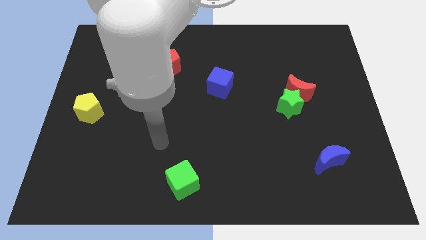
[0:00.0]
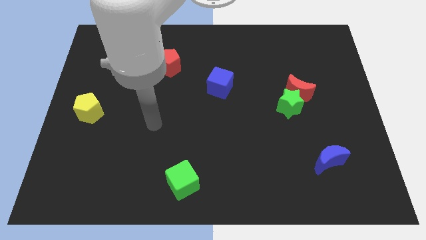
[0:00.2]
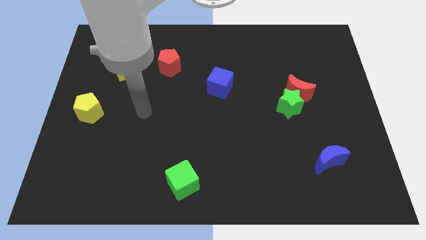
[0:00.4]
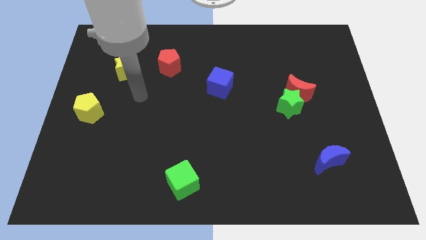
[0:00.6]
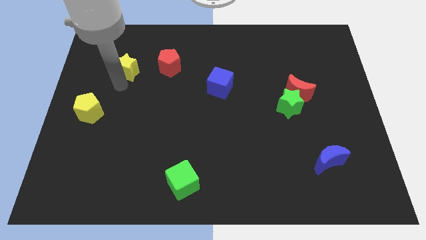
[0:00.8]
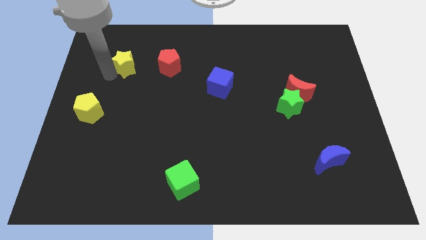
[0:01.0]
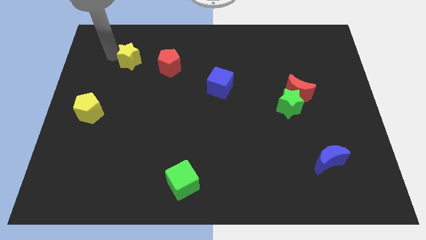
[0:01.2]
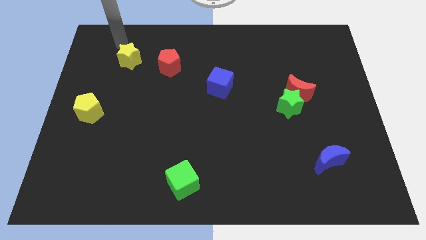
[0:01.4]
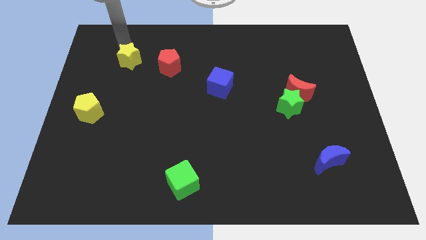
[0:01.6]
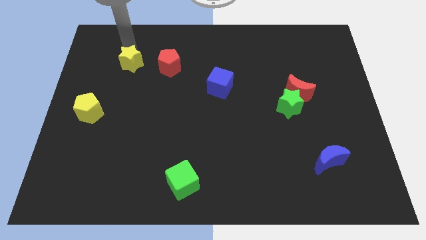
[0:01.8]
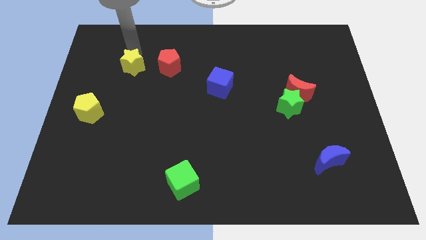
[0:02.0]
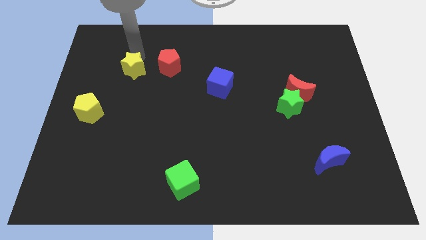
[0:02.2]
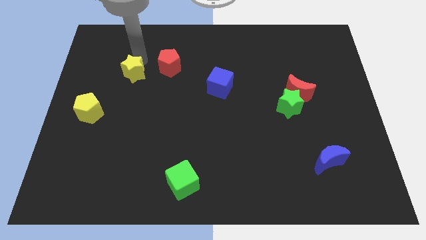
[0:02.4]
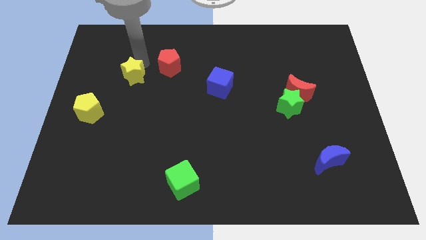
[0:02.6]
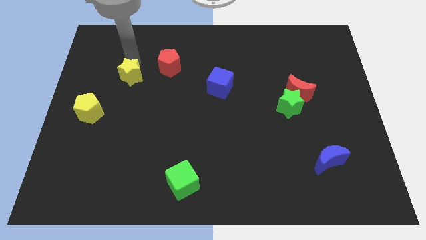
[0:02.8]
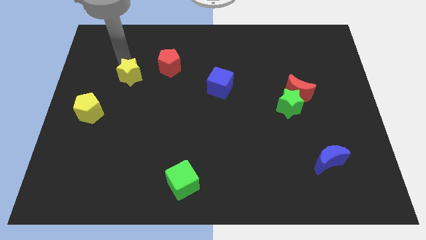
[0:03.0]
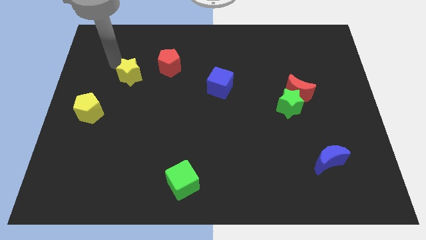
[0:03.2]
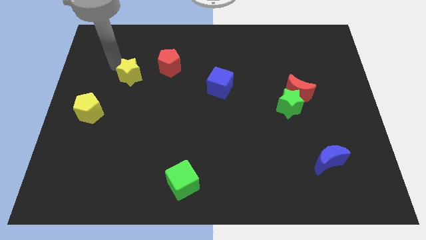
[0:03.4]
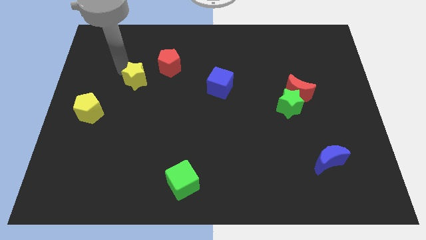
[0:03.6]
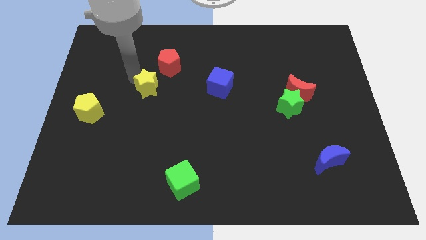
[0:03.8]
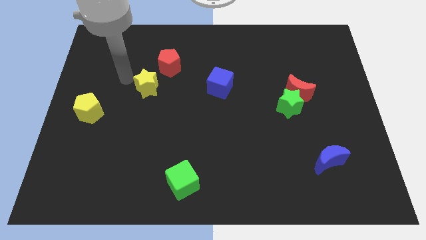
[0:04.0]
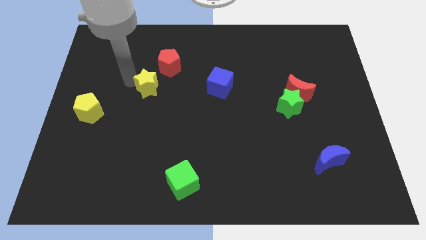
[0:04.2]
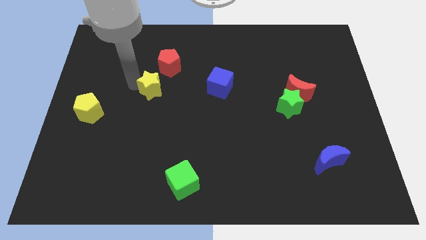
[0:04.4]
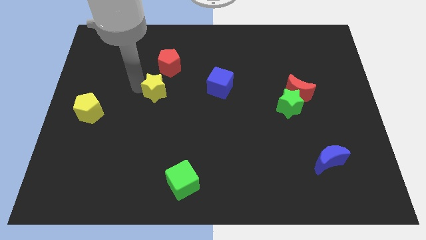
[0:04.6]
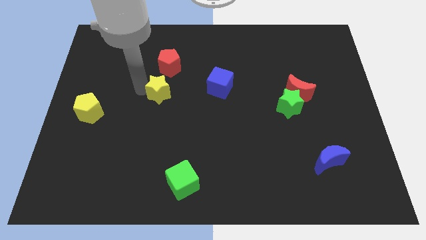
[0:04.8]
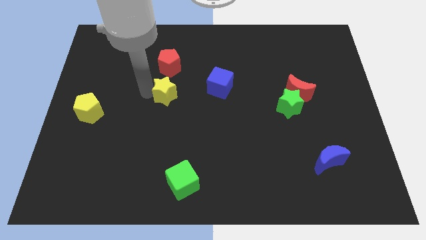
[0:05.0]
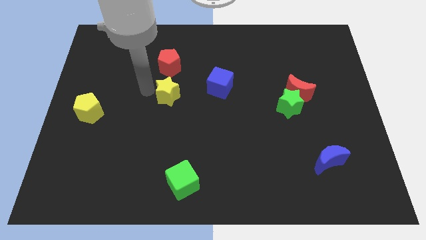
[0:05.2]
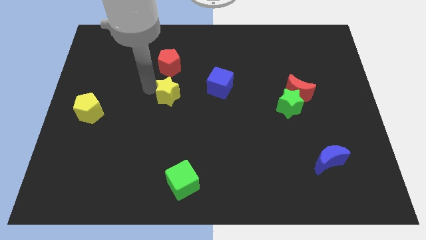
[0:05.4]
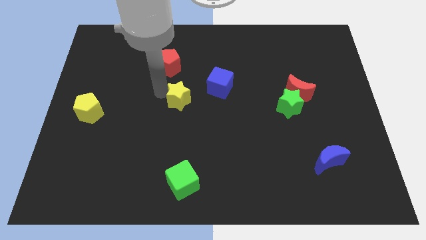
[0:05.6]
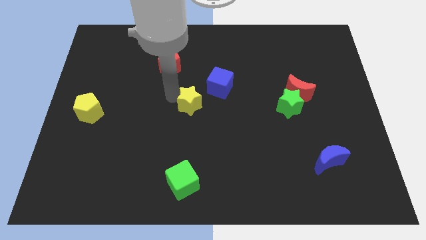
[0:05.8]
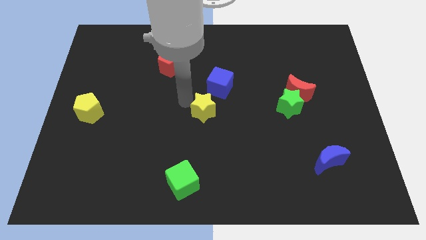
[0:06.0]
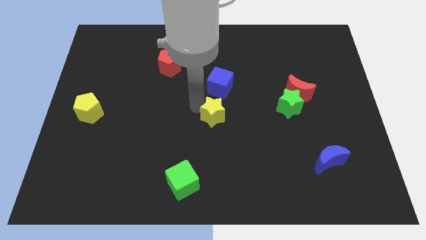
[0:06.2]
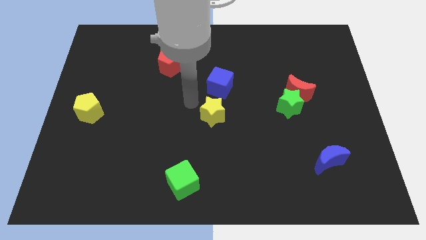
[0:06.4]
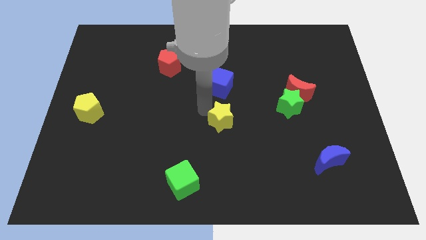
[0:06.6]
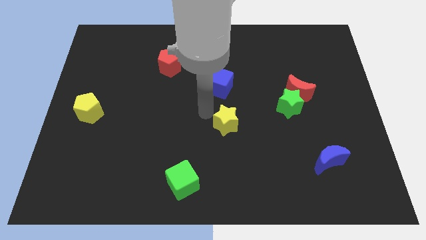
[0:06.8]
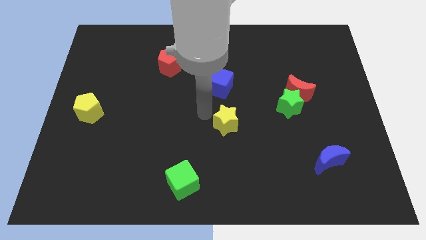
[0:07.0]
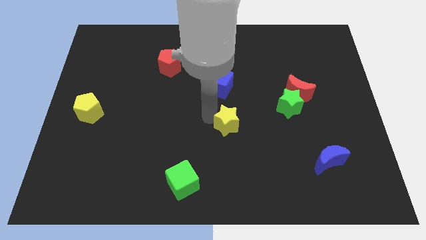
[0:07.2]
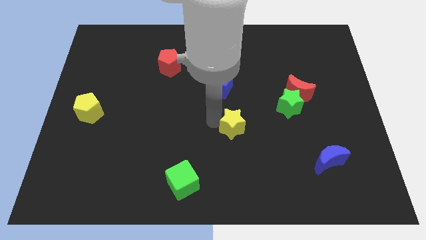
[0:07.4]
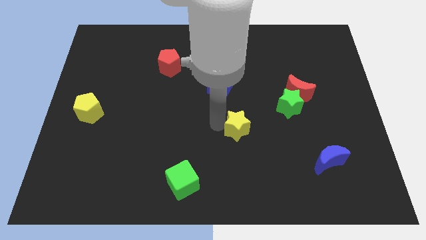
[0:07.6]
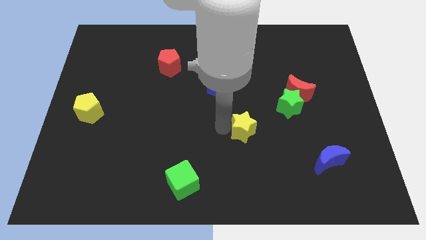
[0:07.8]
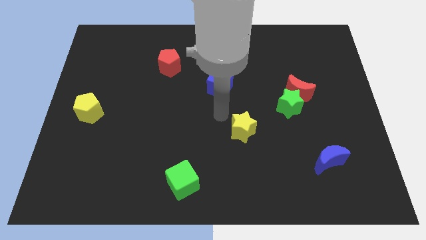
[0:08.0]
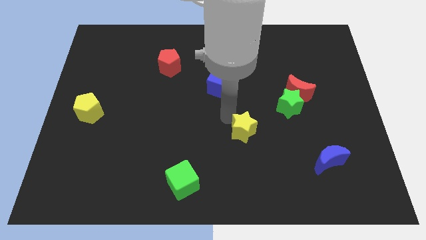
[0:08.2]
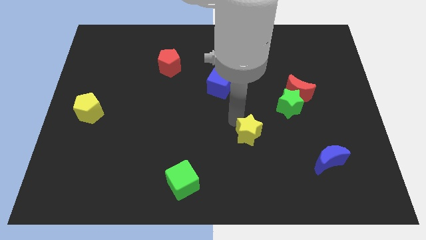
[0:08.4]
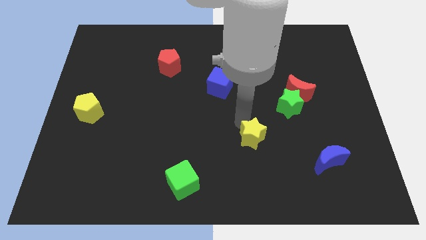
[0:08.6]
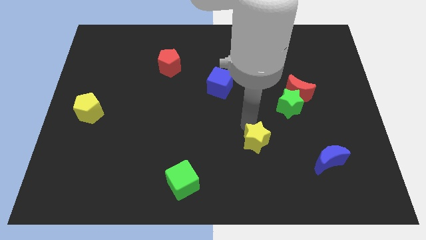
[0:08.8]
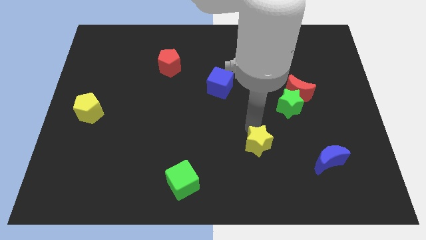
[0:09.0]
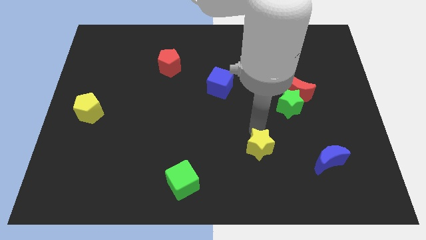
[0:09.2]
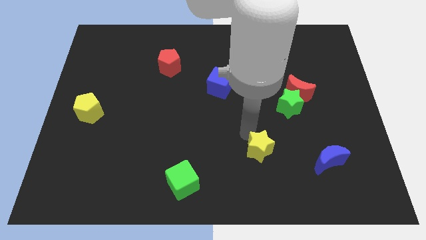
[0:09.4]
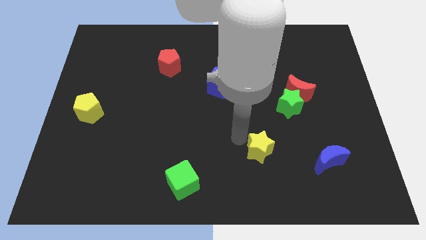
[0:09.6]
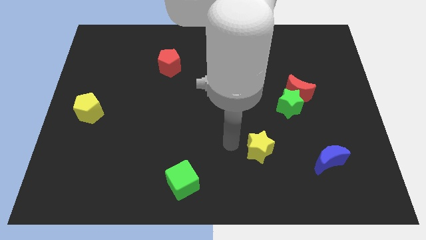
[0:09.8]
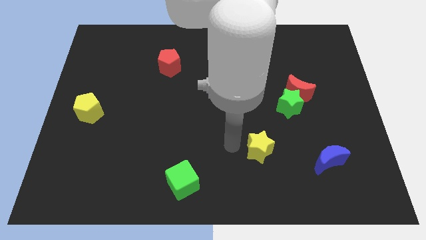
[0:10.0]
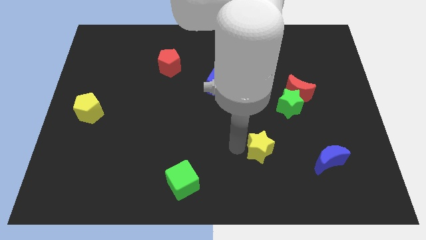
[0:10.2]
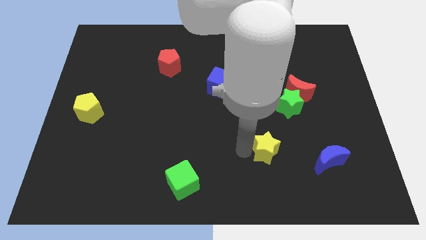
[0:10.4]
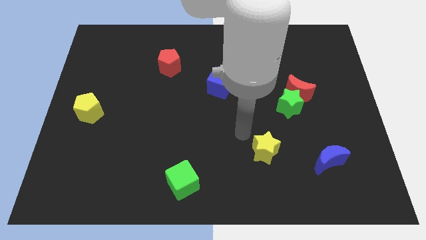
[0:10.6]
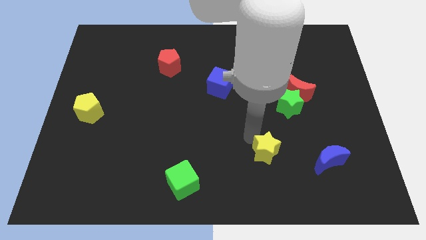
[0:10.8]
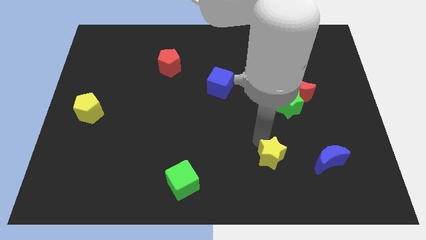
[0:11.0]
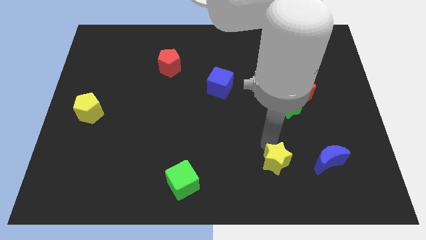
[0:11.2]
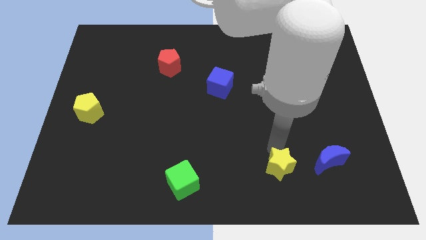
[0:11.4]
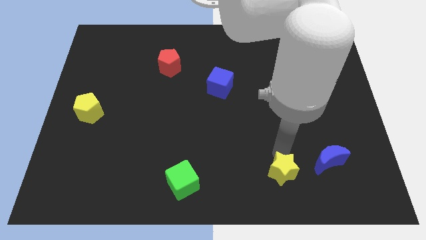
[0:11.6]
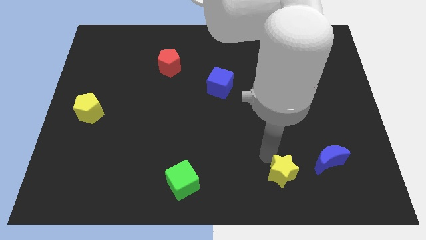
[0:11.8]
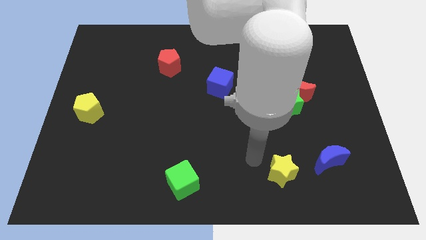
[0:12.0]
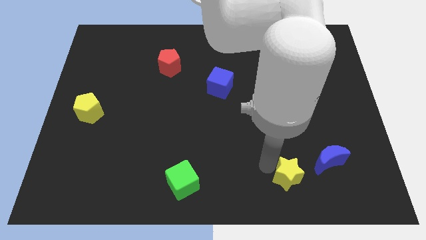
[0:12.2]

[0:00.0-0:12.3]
slide the yellow star diagonally down and to the left of the blue moon
